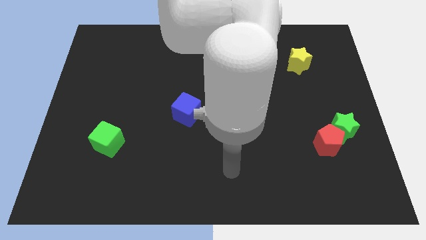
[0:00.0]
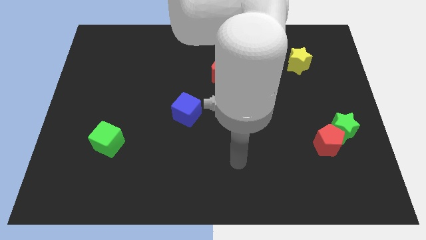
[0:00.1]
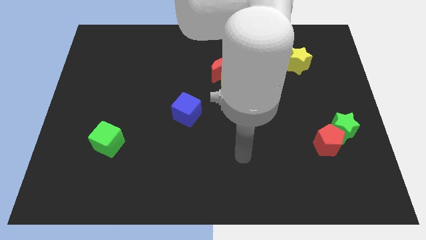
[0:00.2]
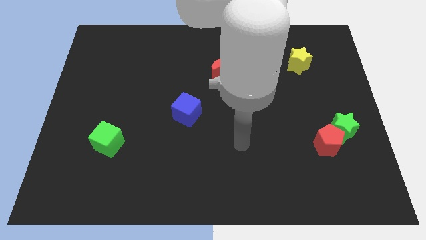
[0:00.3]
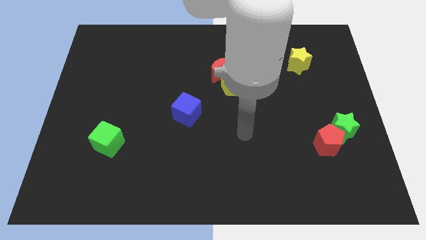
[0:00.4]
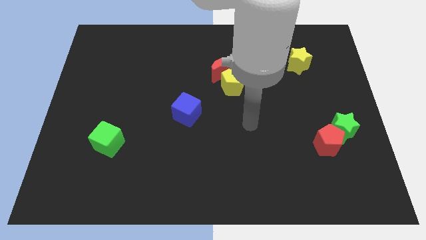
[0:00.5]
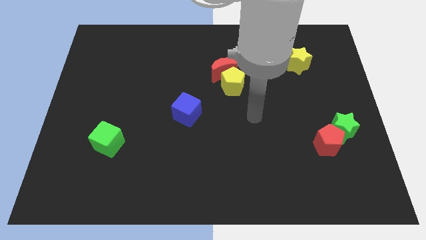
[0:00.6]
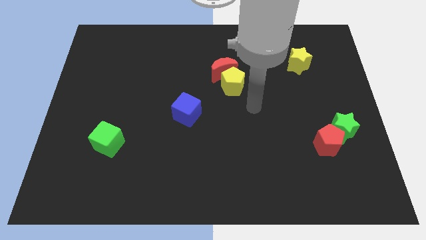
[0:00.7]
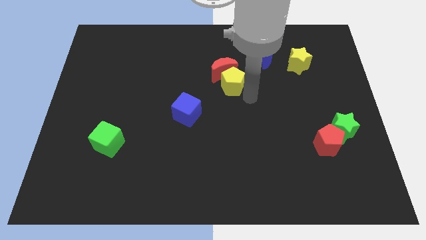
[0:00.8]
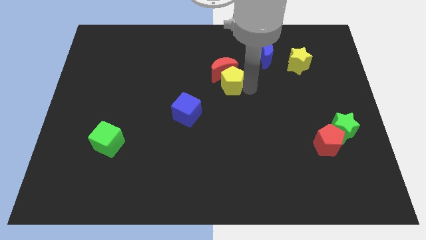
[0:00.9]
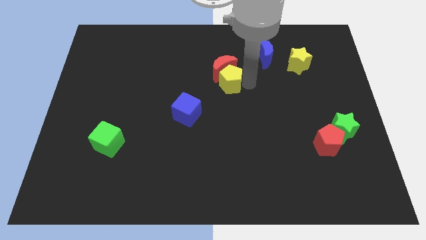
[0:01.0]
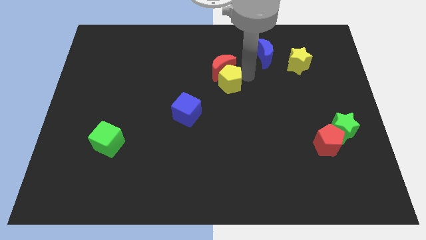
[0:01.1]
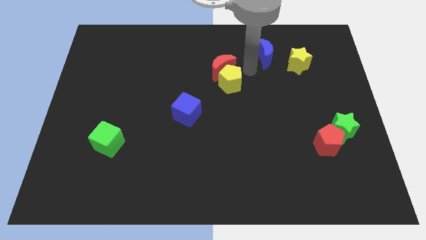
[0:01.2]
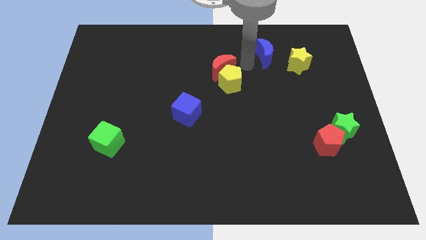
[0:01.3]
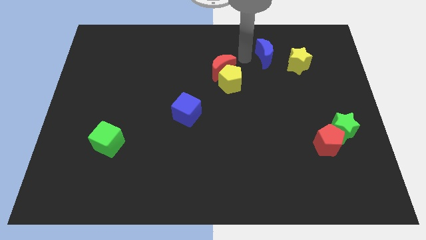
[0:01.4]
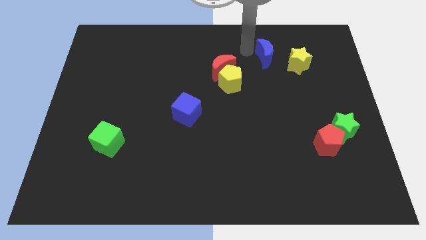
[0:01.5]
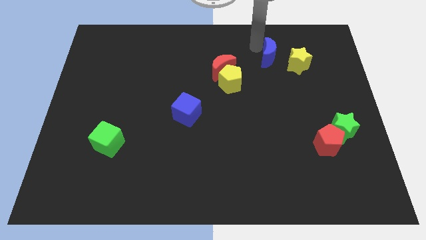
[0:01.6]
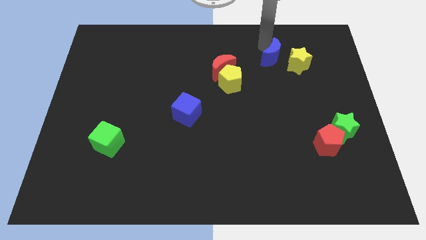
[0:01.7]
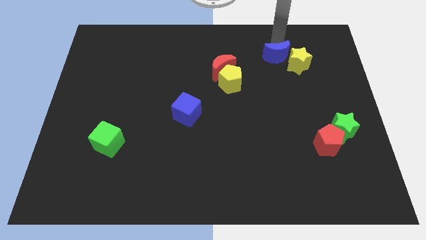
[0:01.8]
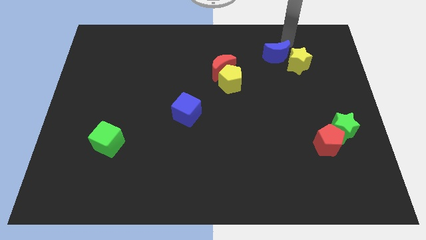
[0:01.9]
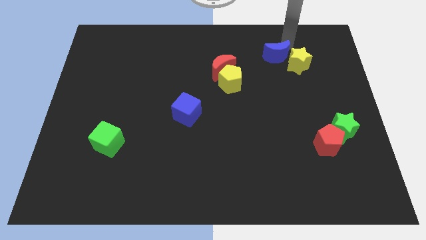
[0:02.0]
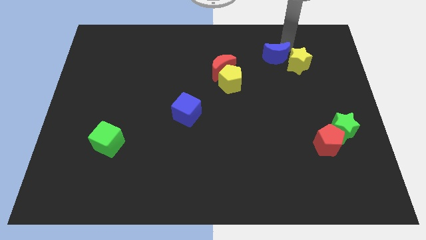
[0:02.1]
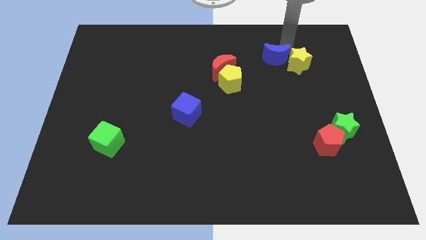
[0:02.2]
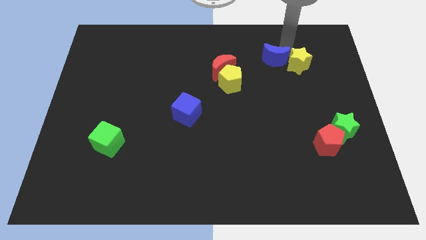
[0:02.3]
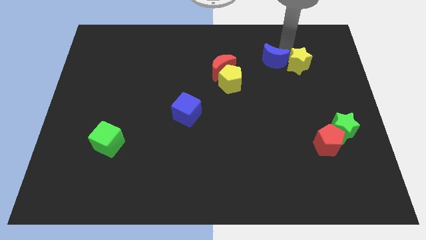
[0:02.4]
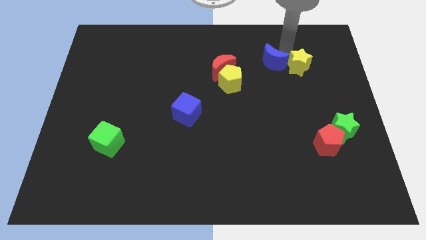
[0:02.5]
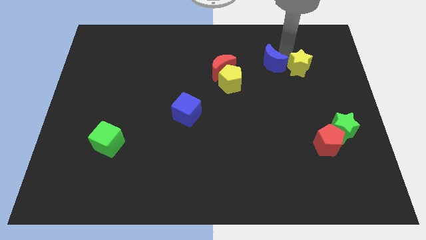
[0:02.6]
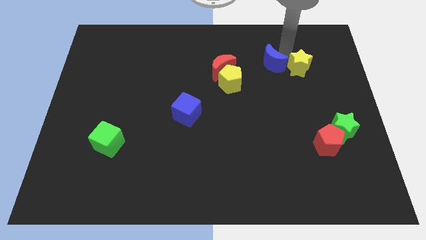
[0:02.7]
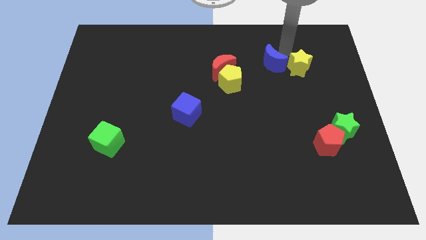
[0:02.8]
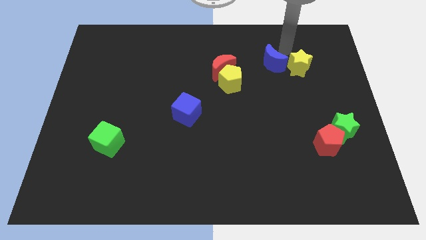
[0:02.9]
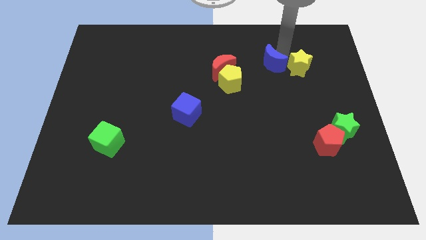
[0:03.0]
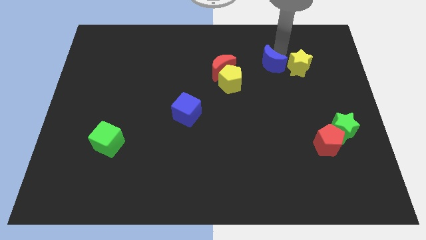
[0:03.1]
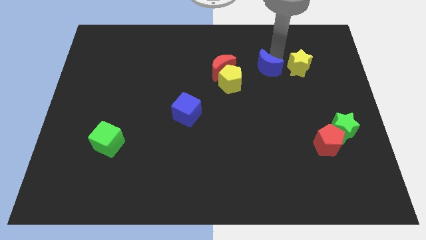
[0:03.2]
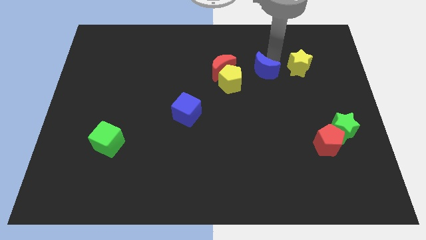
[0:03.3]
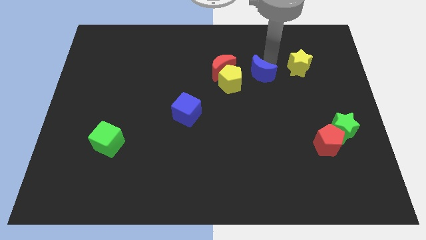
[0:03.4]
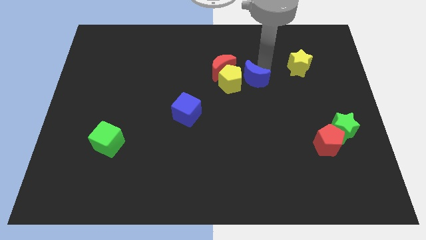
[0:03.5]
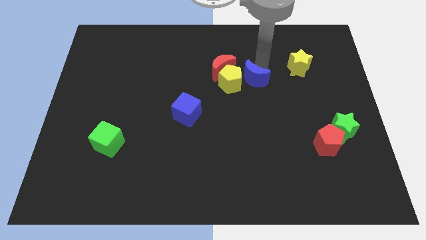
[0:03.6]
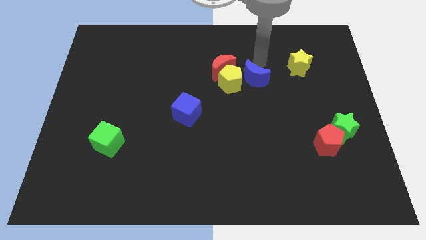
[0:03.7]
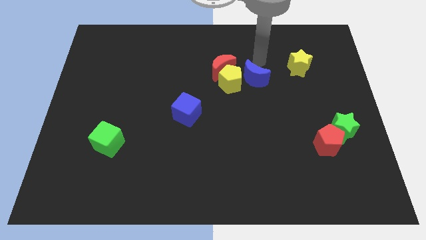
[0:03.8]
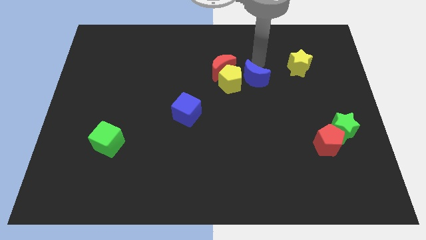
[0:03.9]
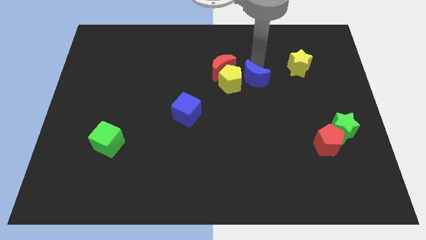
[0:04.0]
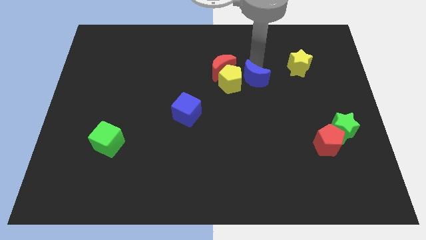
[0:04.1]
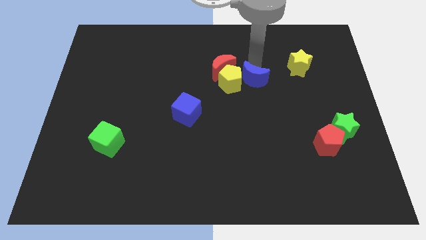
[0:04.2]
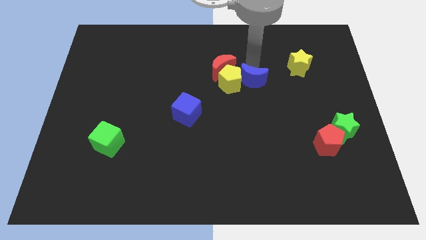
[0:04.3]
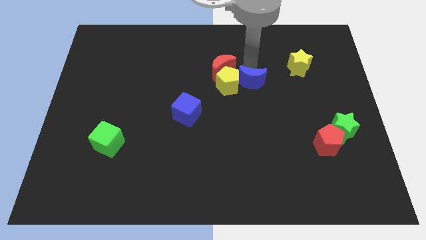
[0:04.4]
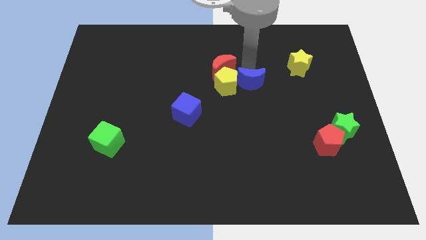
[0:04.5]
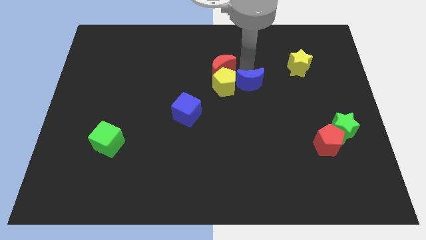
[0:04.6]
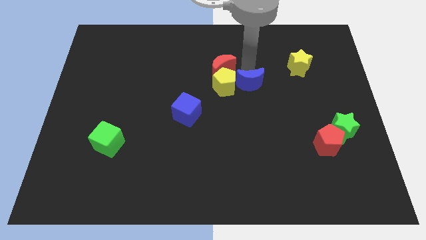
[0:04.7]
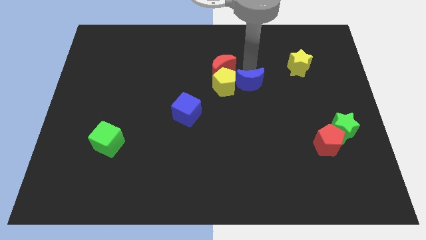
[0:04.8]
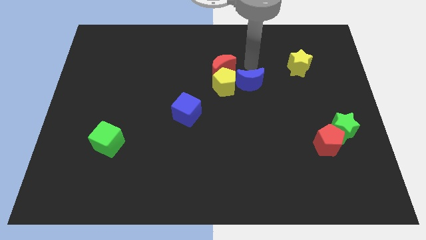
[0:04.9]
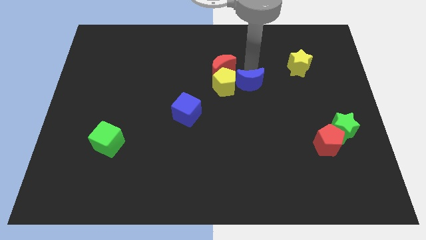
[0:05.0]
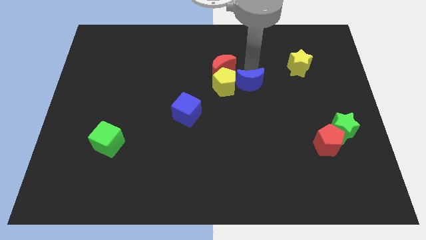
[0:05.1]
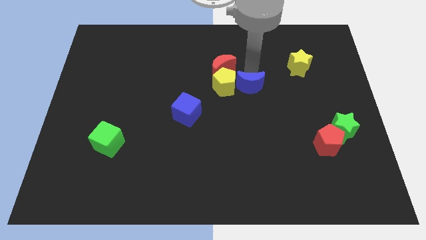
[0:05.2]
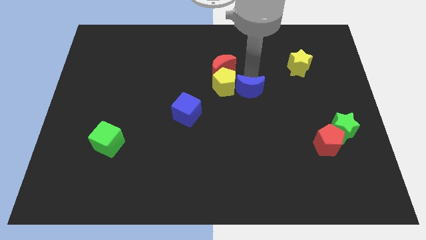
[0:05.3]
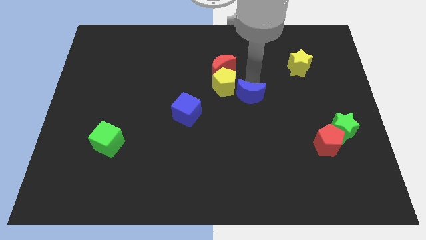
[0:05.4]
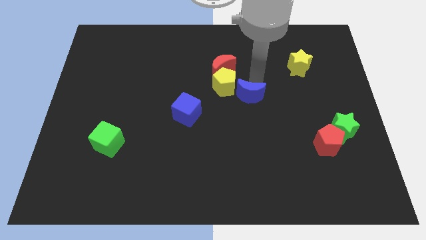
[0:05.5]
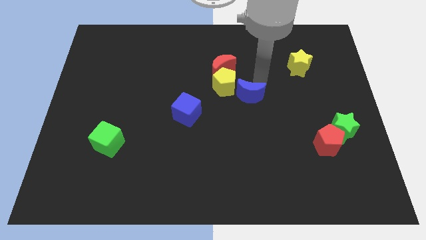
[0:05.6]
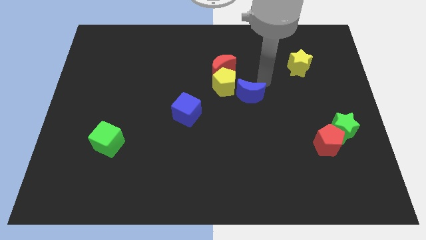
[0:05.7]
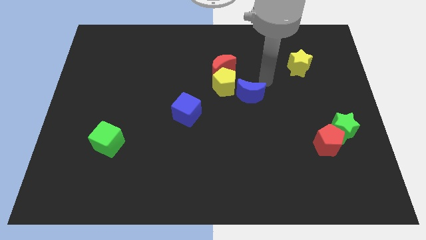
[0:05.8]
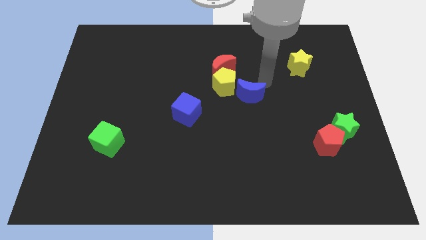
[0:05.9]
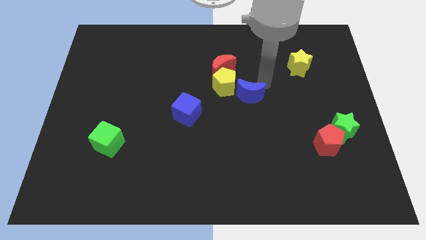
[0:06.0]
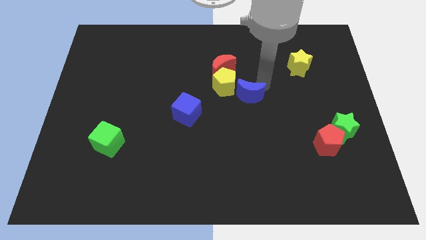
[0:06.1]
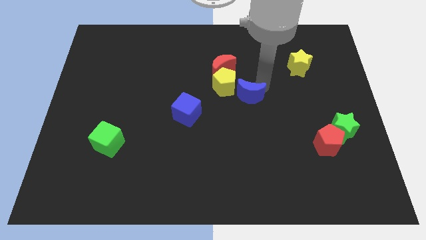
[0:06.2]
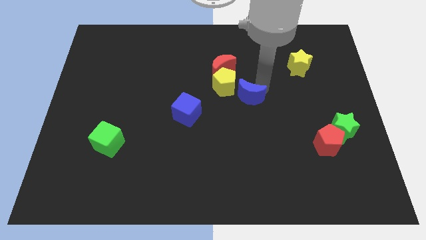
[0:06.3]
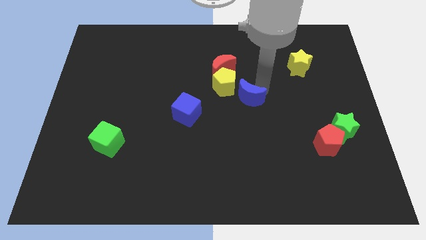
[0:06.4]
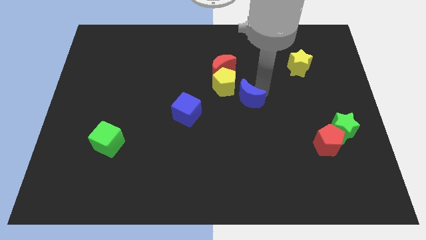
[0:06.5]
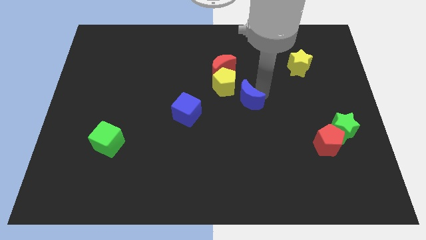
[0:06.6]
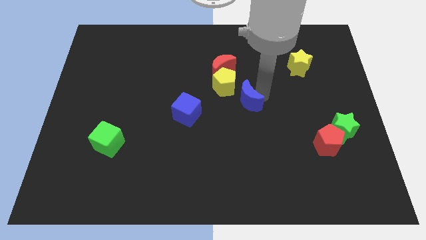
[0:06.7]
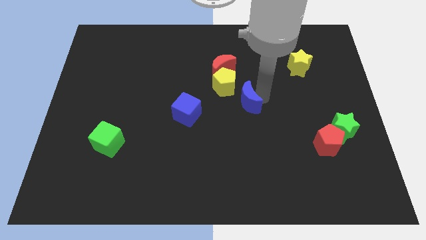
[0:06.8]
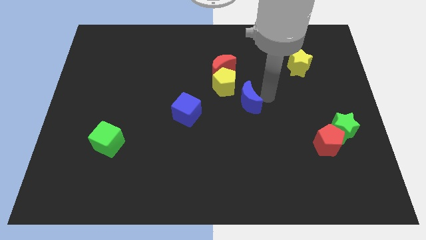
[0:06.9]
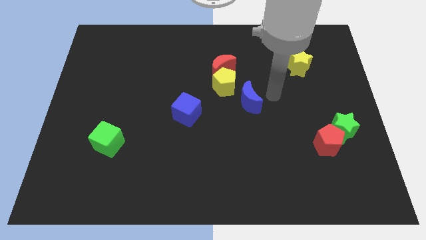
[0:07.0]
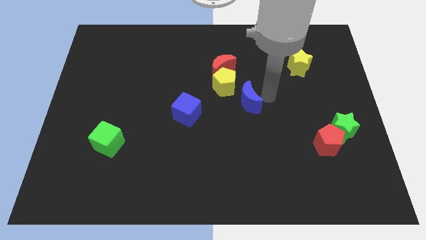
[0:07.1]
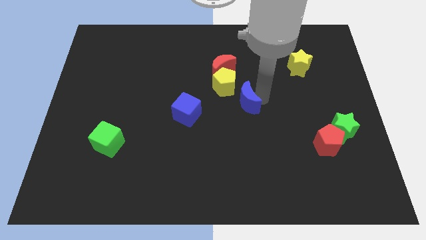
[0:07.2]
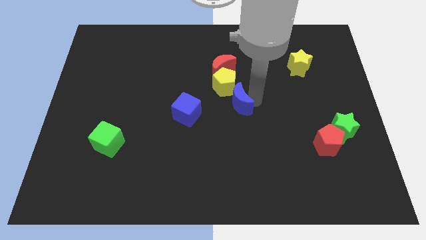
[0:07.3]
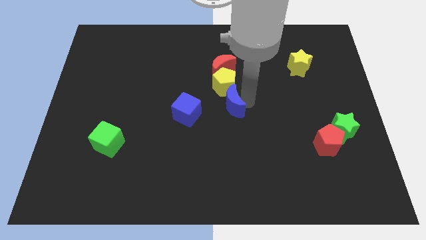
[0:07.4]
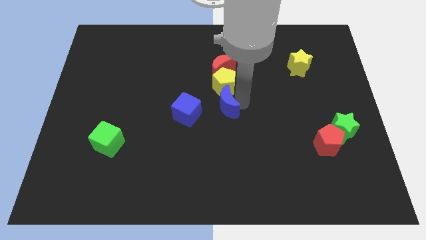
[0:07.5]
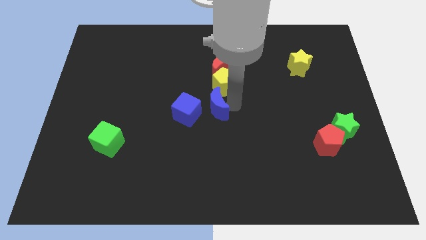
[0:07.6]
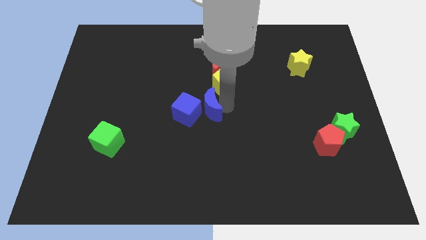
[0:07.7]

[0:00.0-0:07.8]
move the blue moon towards the blue cube
